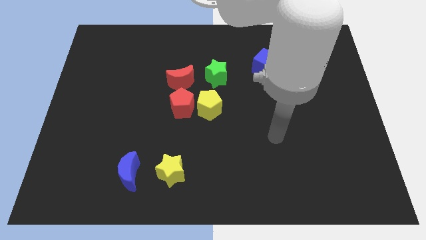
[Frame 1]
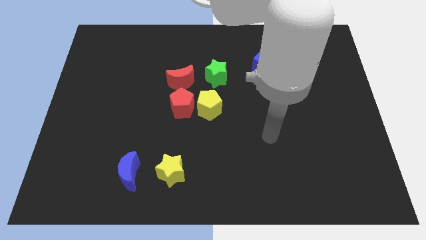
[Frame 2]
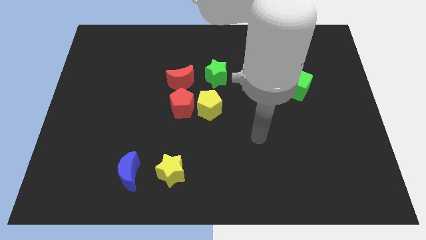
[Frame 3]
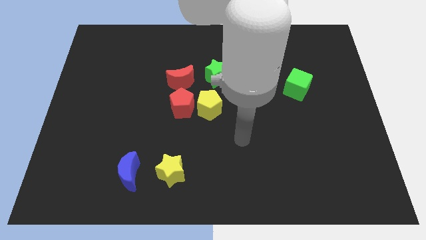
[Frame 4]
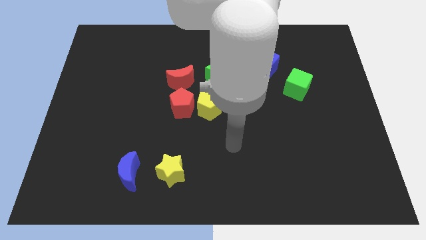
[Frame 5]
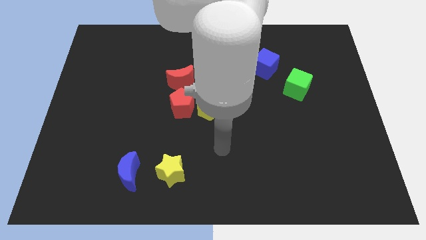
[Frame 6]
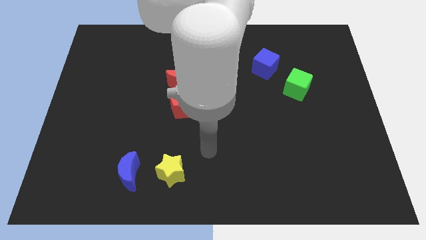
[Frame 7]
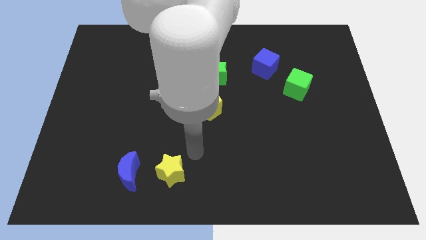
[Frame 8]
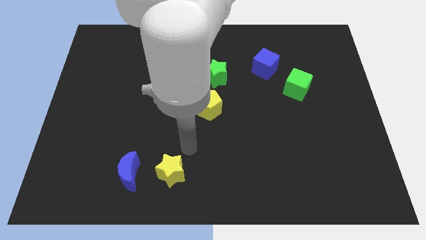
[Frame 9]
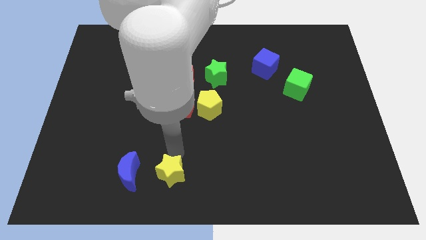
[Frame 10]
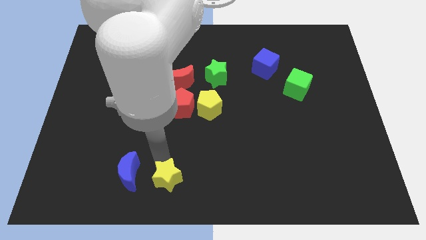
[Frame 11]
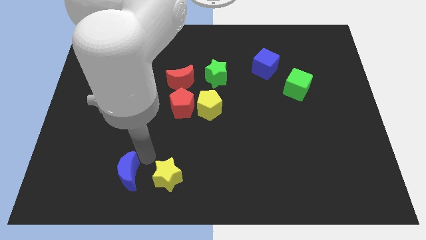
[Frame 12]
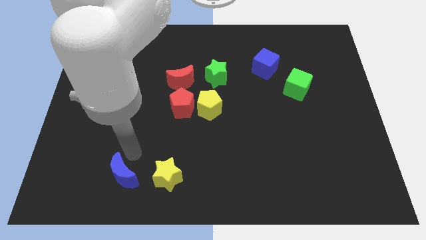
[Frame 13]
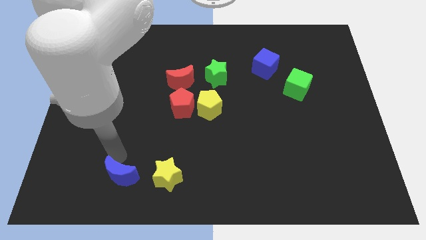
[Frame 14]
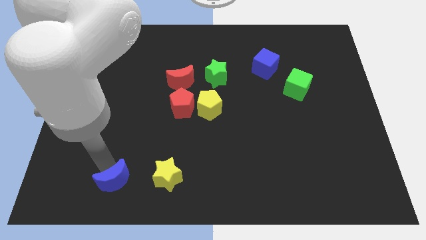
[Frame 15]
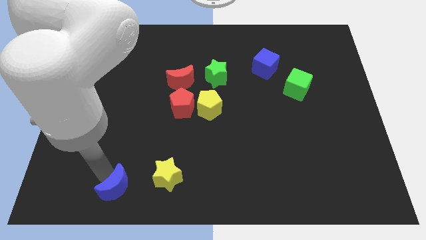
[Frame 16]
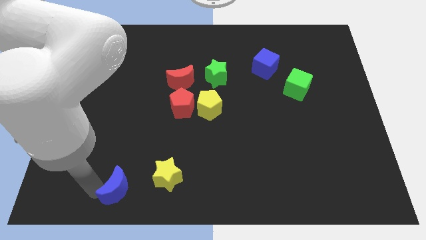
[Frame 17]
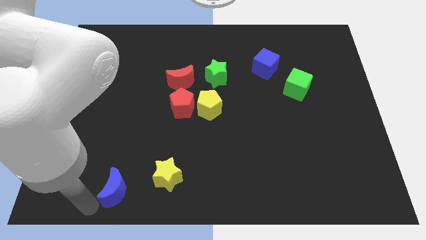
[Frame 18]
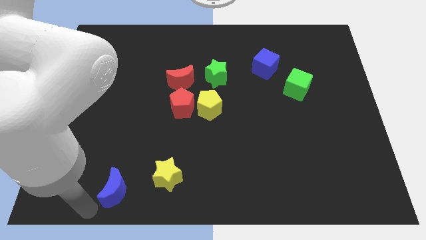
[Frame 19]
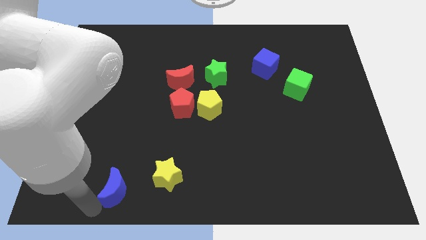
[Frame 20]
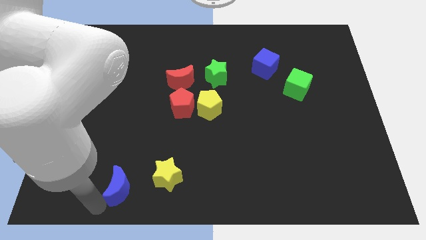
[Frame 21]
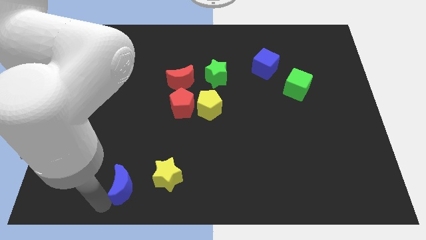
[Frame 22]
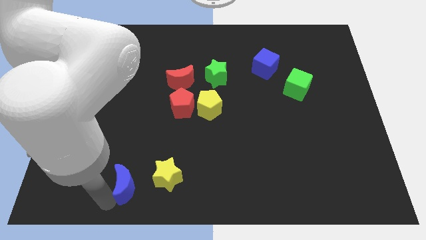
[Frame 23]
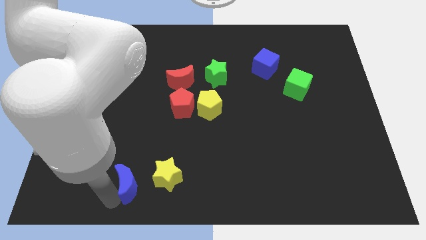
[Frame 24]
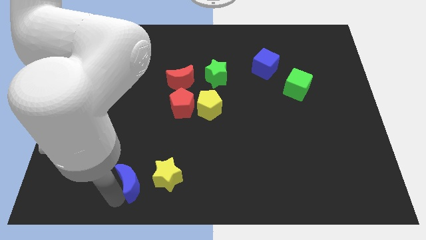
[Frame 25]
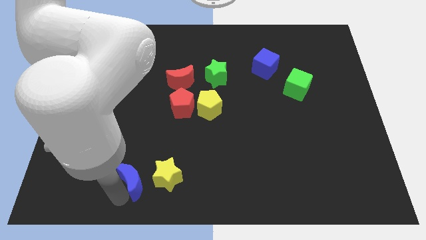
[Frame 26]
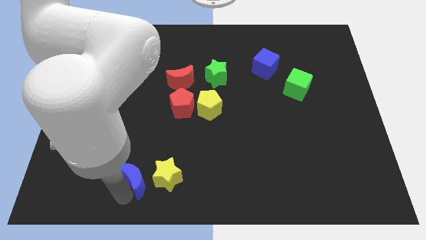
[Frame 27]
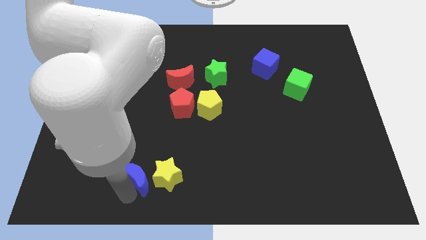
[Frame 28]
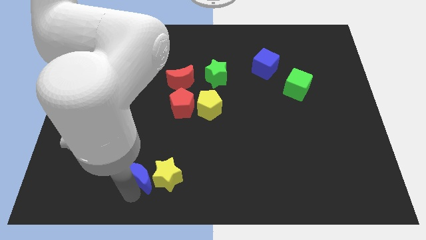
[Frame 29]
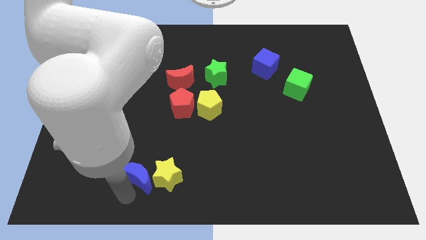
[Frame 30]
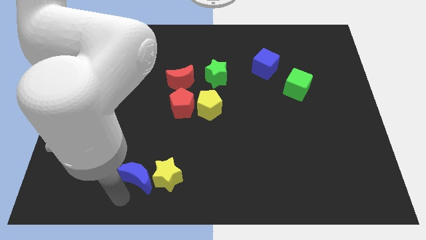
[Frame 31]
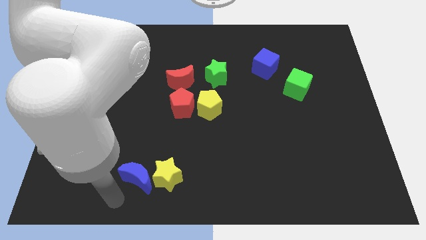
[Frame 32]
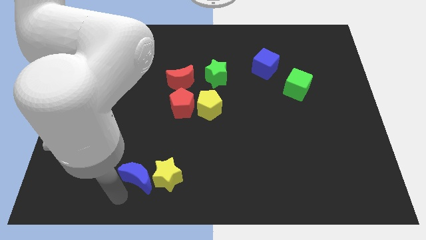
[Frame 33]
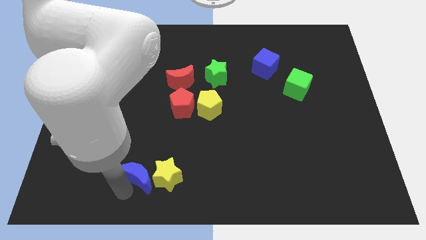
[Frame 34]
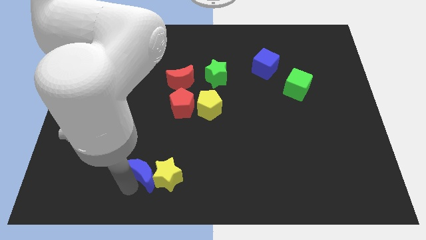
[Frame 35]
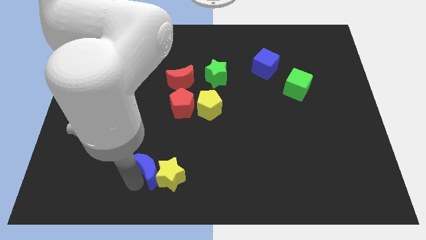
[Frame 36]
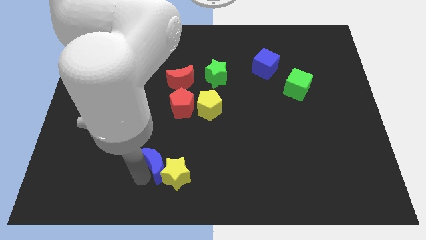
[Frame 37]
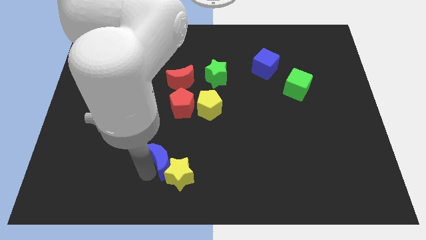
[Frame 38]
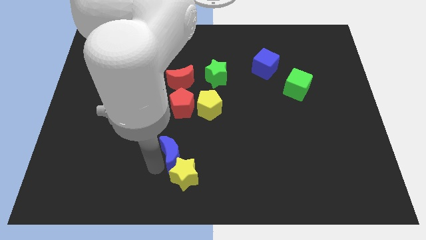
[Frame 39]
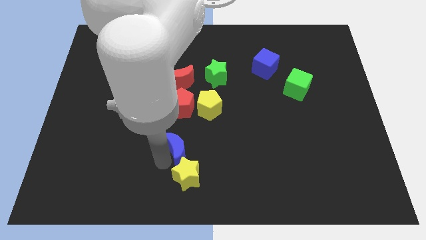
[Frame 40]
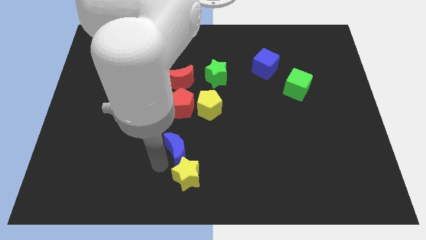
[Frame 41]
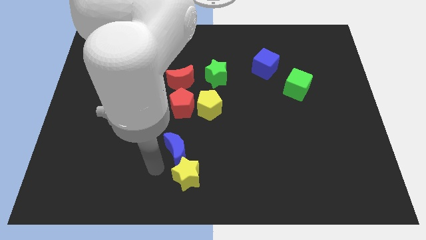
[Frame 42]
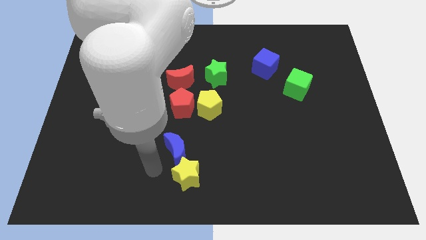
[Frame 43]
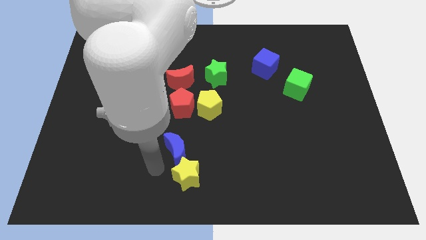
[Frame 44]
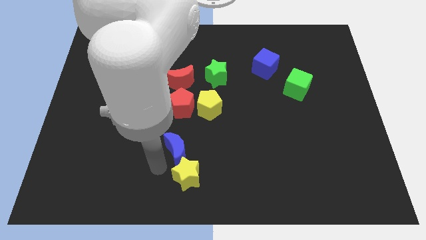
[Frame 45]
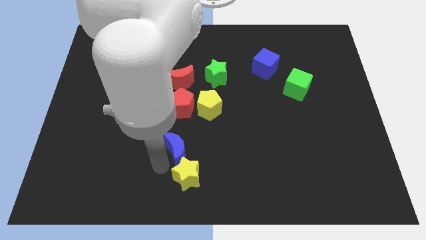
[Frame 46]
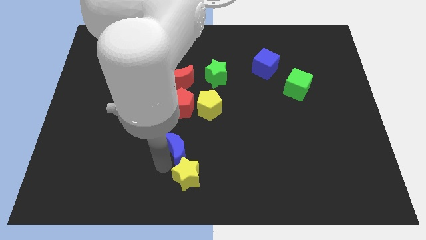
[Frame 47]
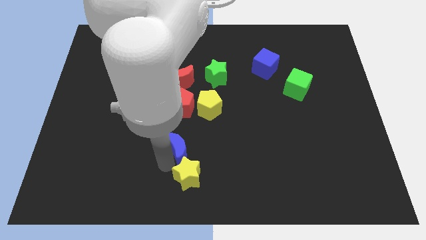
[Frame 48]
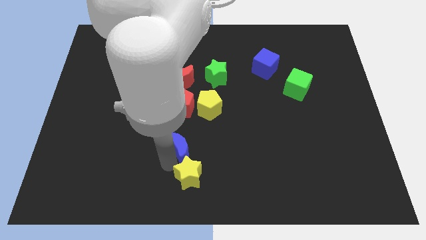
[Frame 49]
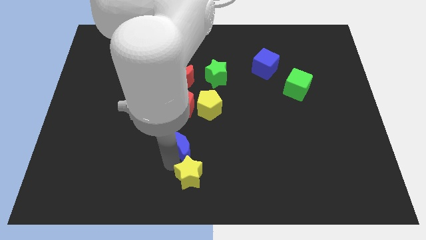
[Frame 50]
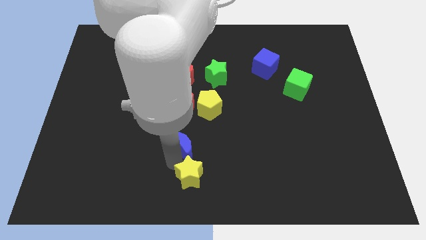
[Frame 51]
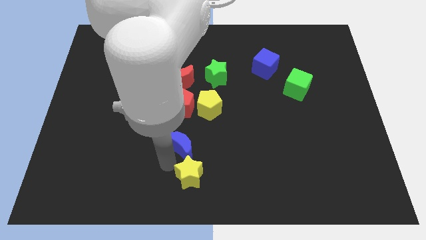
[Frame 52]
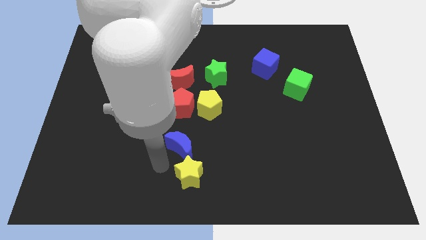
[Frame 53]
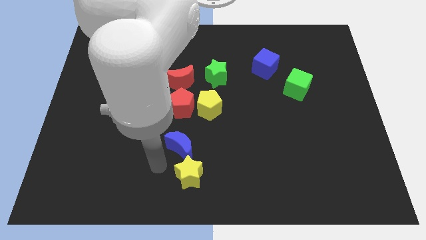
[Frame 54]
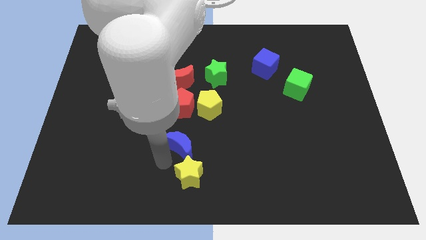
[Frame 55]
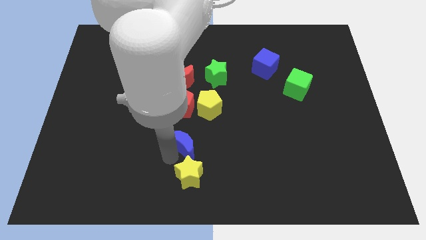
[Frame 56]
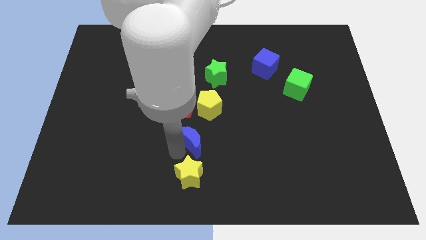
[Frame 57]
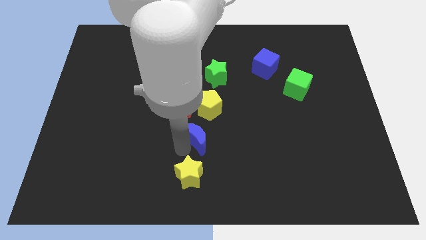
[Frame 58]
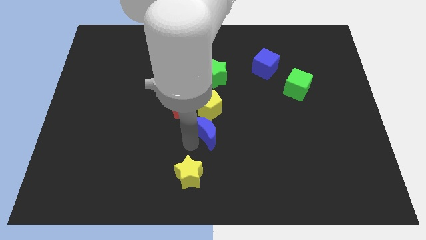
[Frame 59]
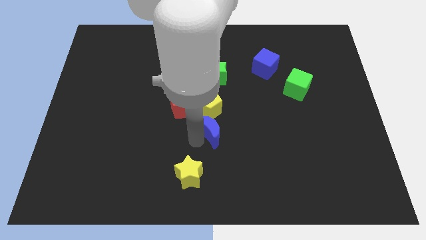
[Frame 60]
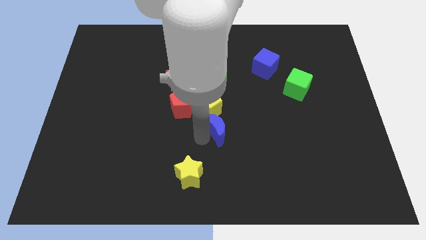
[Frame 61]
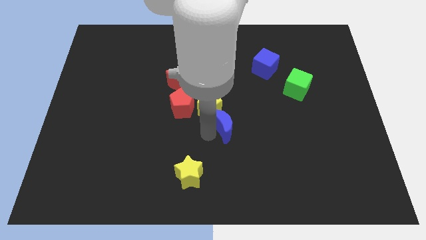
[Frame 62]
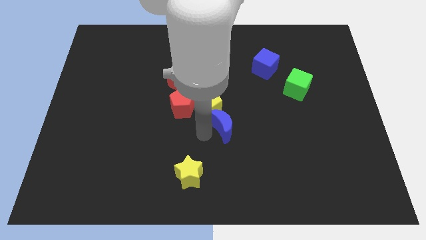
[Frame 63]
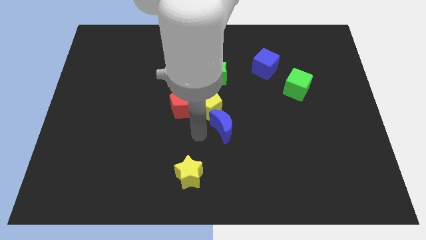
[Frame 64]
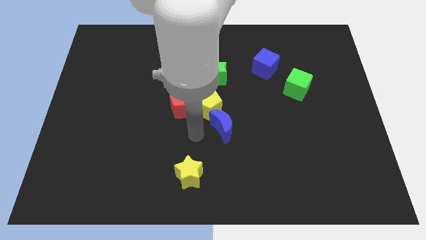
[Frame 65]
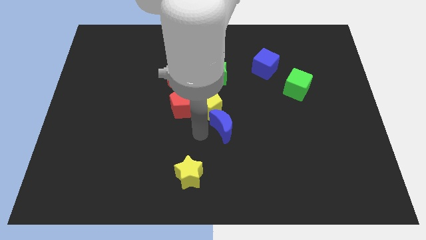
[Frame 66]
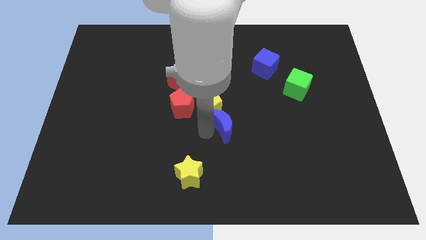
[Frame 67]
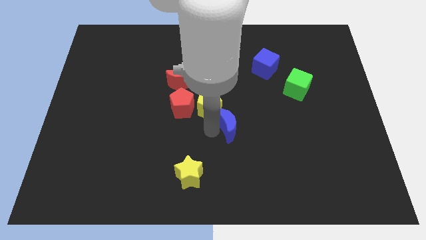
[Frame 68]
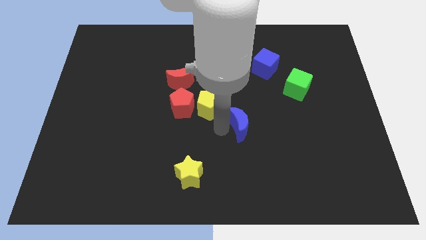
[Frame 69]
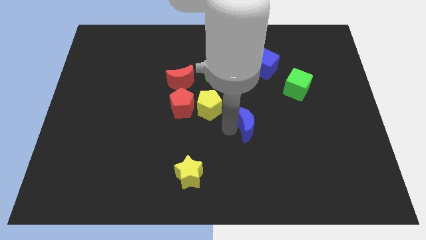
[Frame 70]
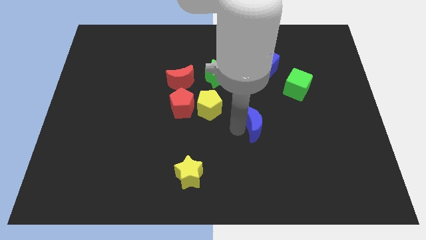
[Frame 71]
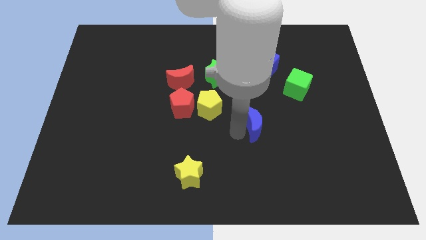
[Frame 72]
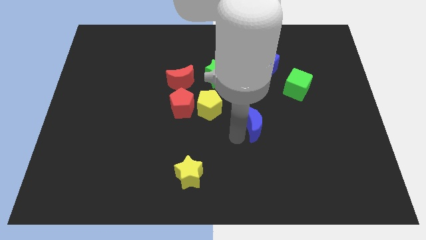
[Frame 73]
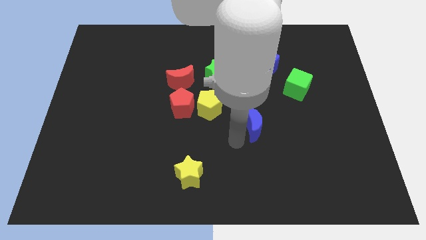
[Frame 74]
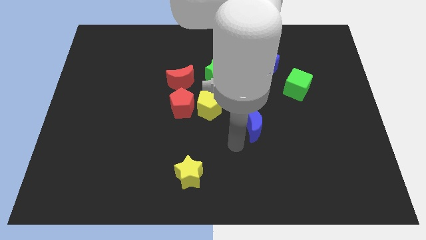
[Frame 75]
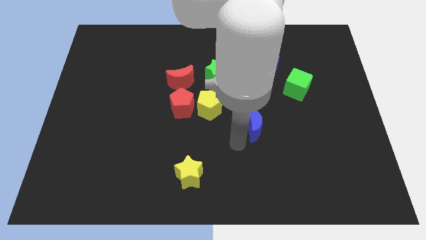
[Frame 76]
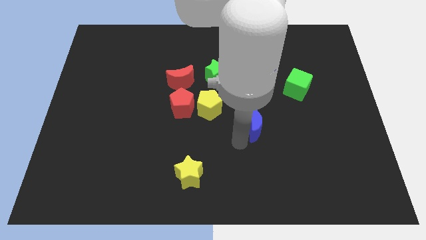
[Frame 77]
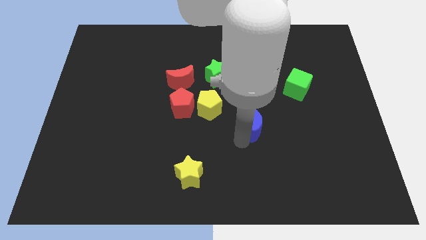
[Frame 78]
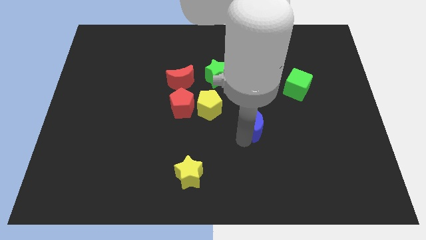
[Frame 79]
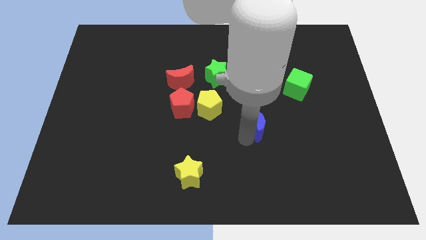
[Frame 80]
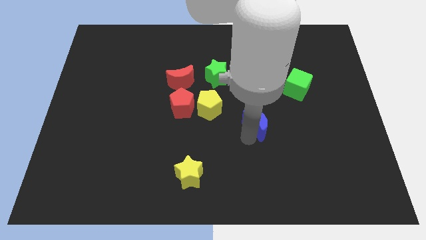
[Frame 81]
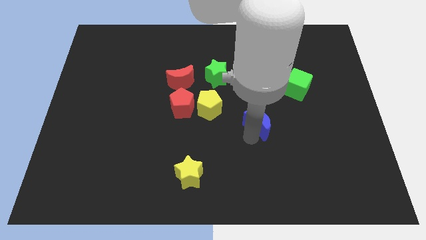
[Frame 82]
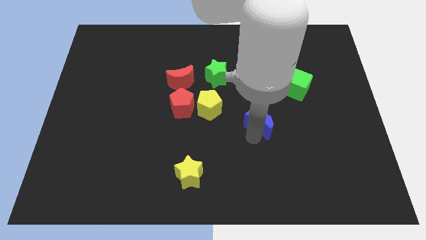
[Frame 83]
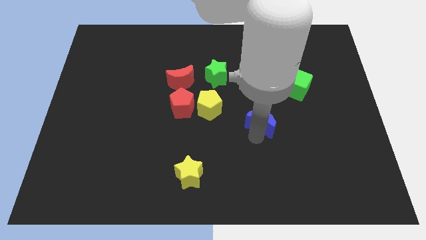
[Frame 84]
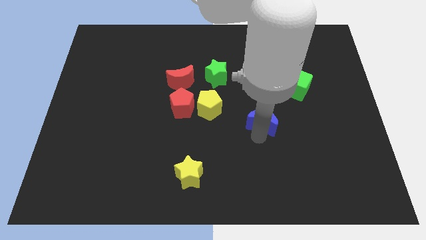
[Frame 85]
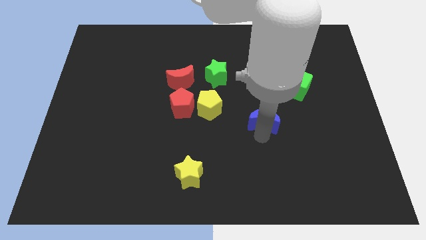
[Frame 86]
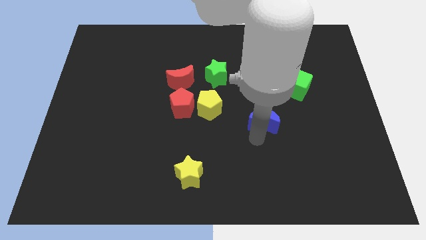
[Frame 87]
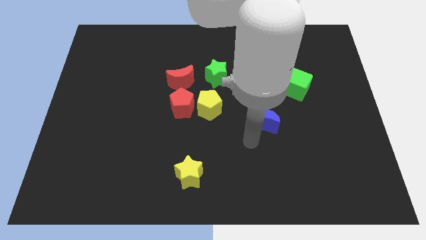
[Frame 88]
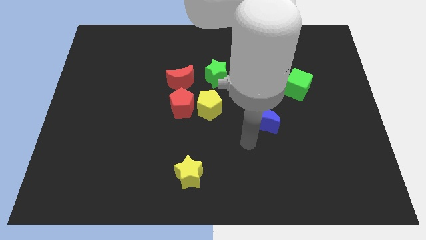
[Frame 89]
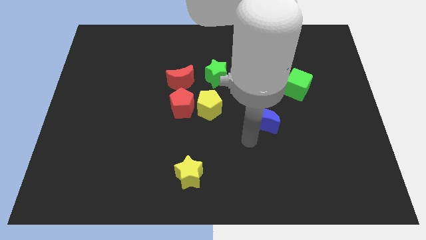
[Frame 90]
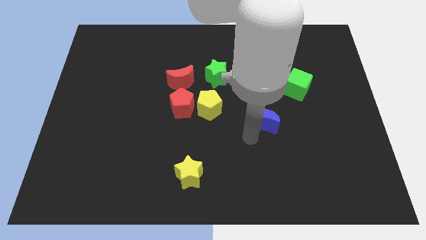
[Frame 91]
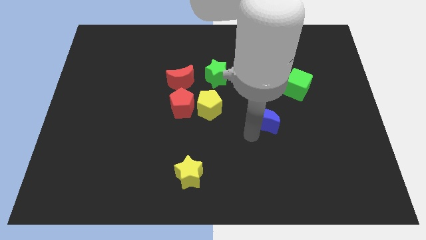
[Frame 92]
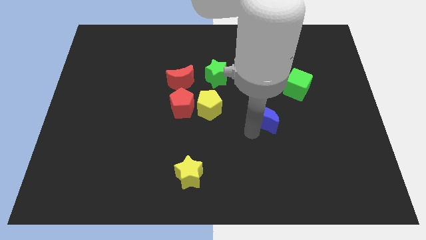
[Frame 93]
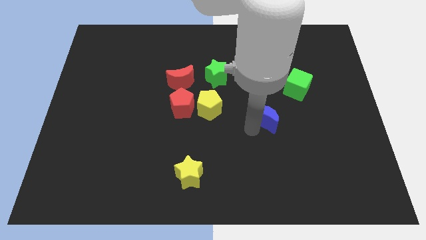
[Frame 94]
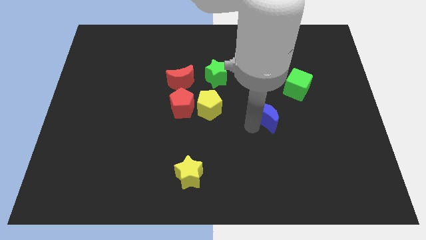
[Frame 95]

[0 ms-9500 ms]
put the blue moon to the bottom left of the green cube
